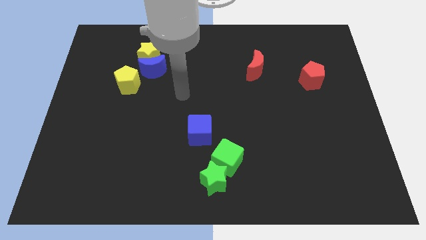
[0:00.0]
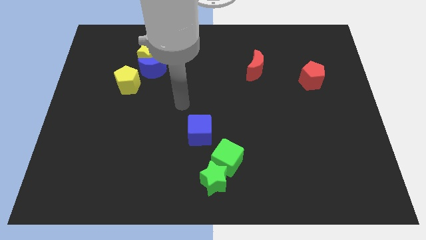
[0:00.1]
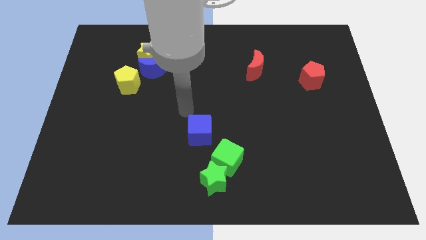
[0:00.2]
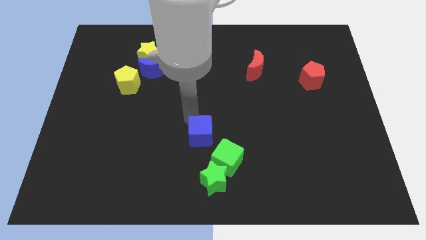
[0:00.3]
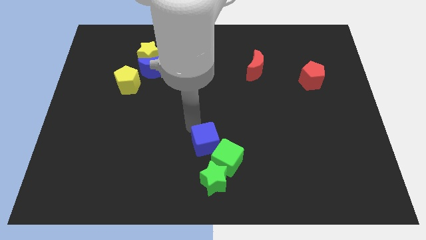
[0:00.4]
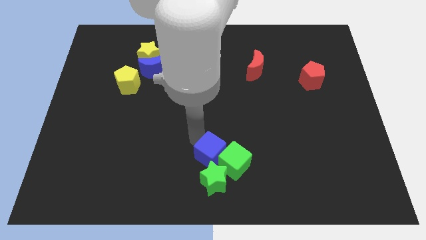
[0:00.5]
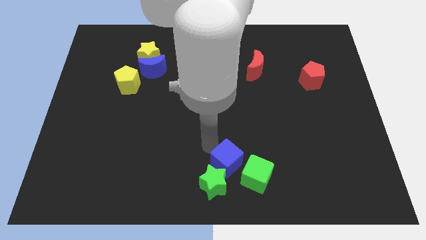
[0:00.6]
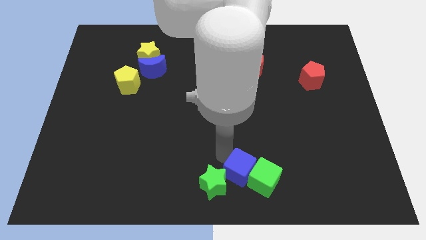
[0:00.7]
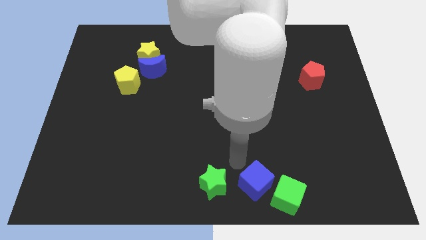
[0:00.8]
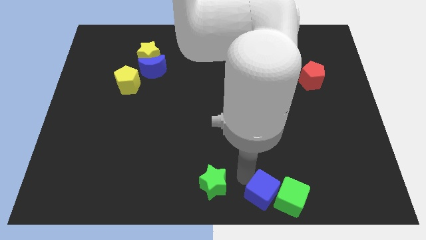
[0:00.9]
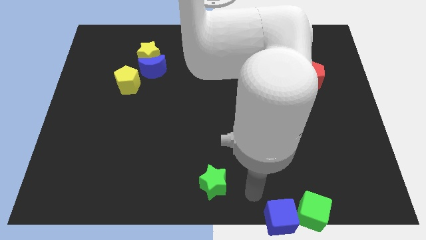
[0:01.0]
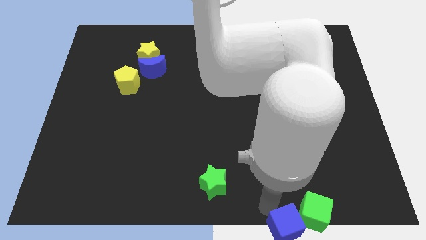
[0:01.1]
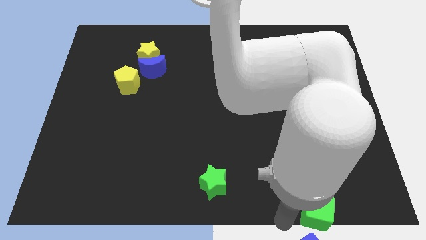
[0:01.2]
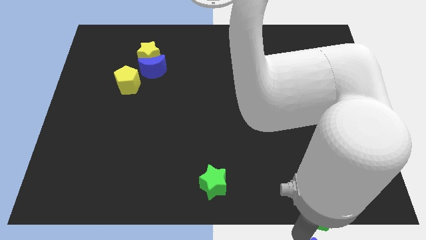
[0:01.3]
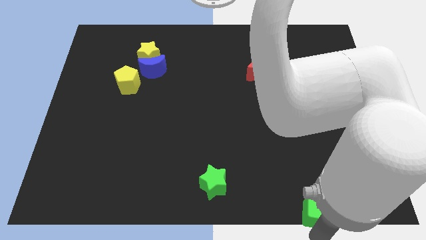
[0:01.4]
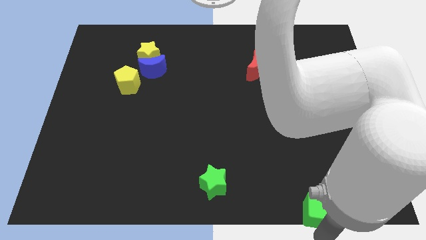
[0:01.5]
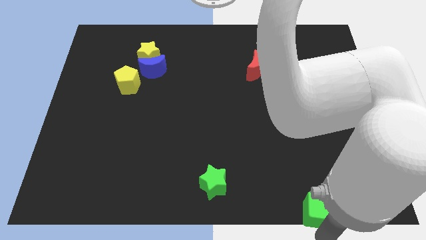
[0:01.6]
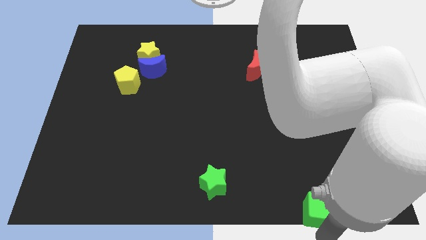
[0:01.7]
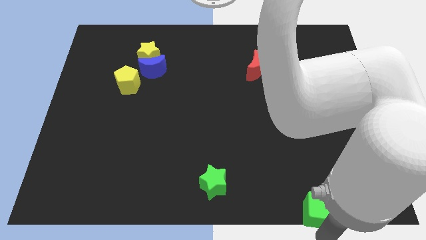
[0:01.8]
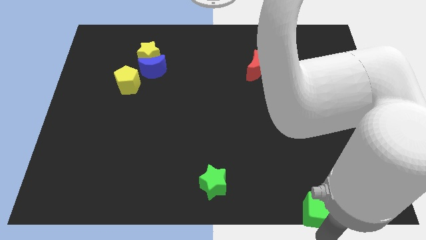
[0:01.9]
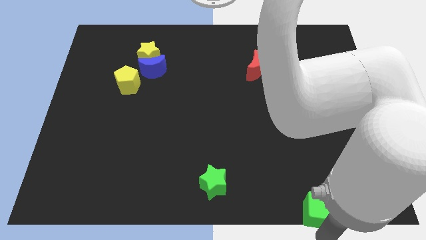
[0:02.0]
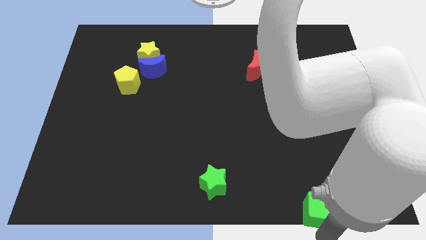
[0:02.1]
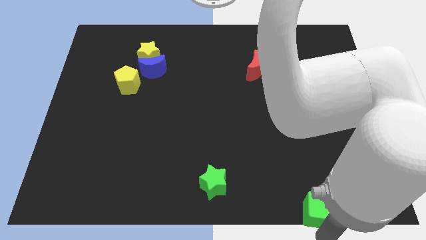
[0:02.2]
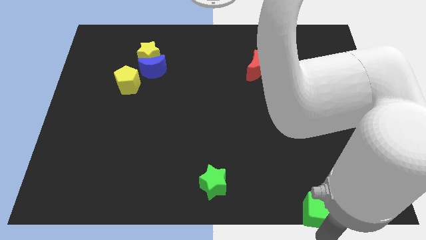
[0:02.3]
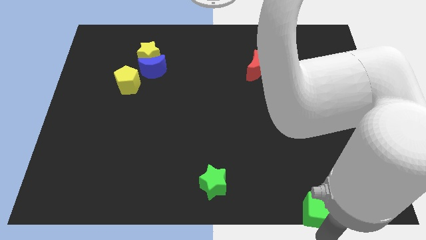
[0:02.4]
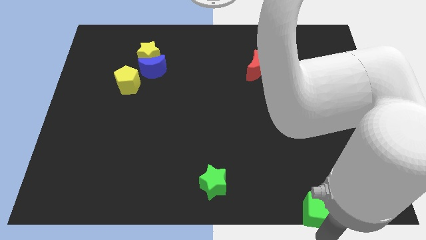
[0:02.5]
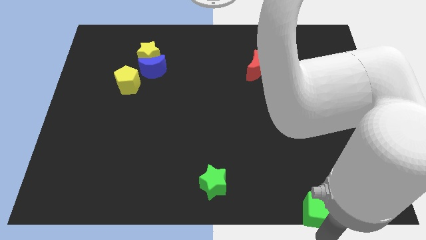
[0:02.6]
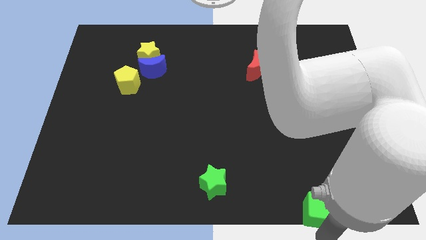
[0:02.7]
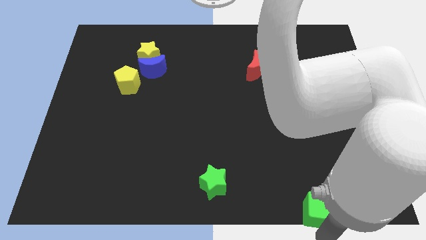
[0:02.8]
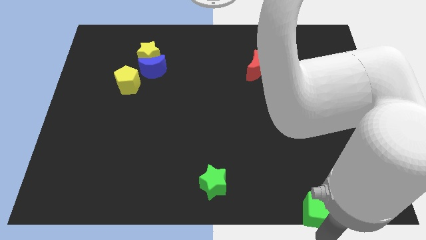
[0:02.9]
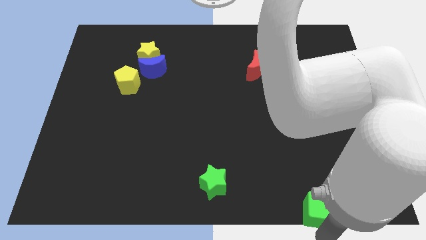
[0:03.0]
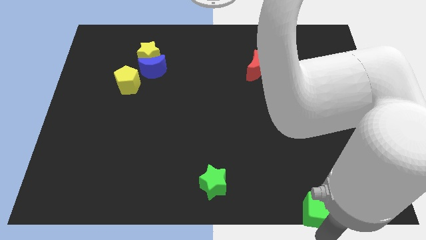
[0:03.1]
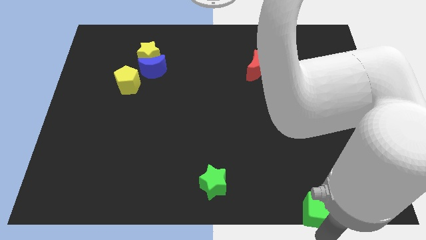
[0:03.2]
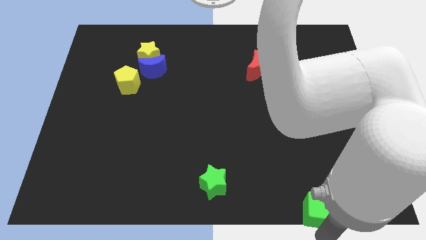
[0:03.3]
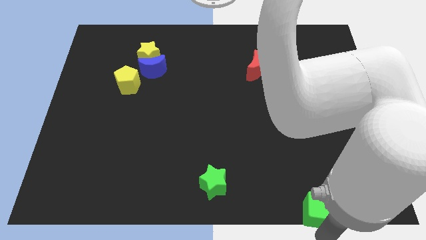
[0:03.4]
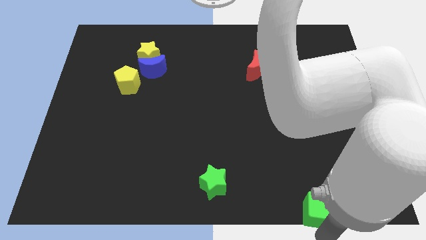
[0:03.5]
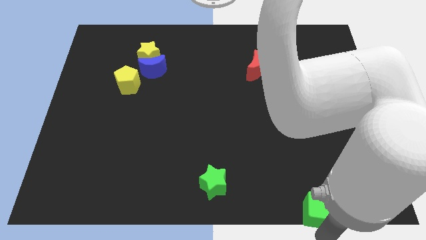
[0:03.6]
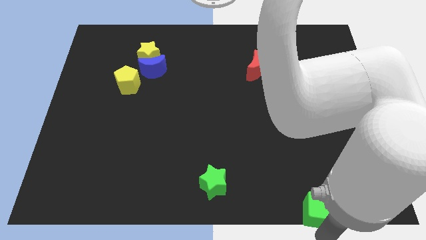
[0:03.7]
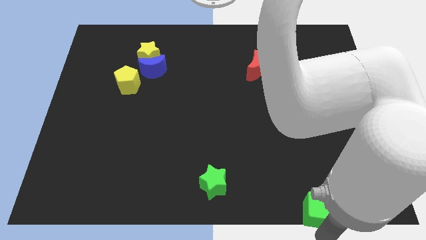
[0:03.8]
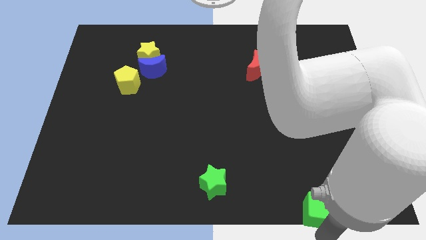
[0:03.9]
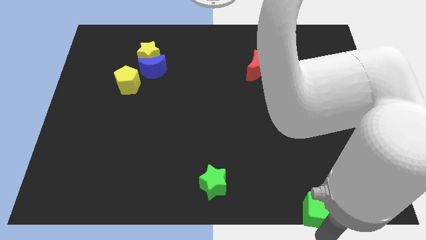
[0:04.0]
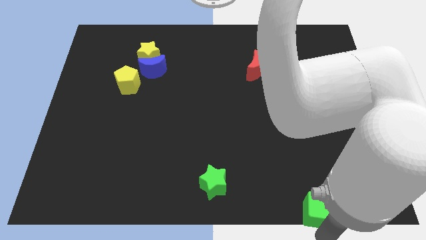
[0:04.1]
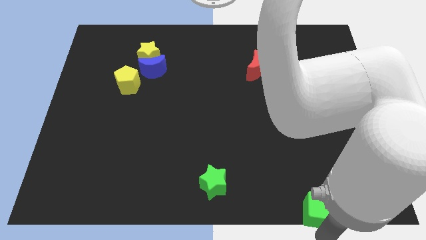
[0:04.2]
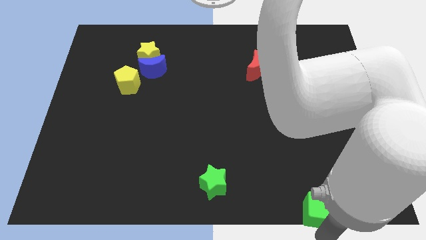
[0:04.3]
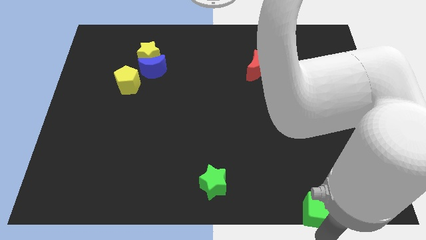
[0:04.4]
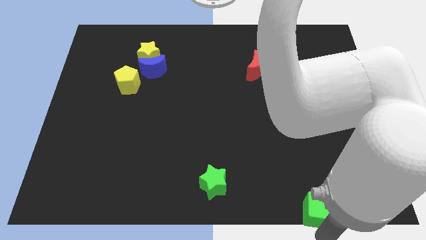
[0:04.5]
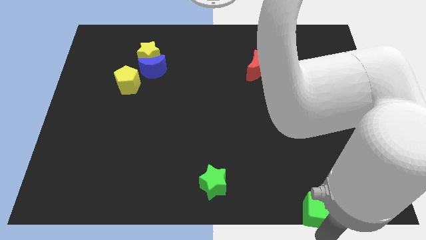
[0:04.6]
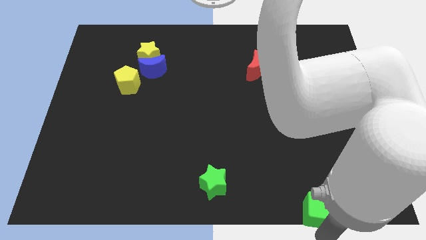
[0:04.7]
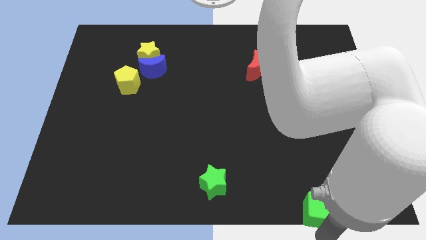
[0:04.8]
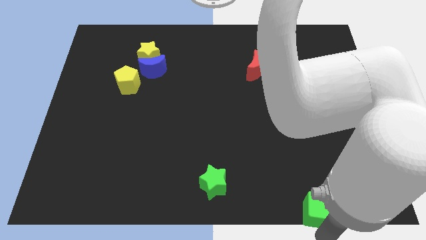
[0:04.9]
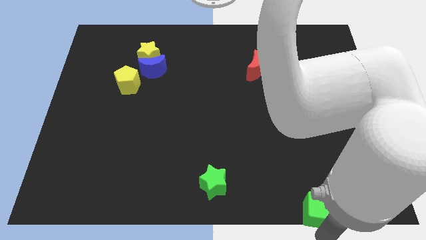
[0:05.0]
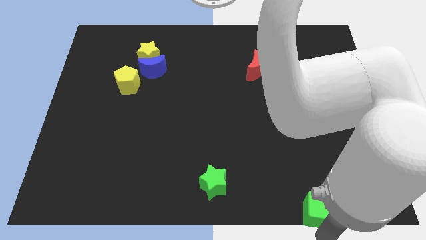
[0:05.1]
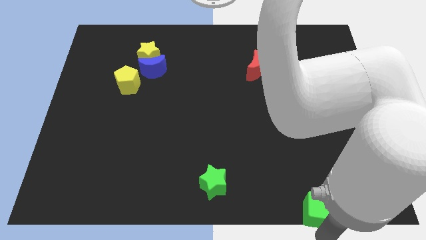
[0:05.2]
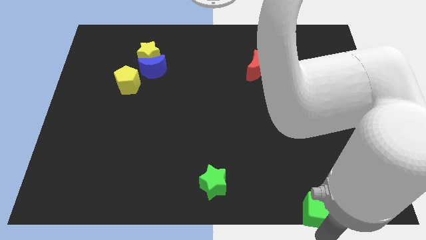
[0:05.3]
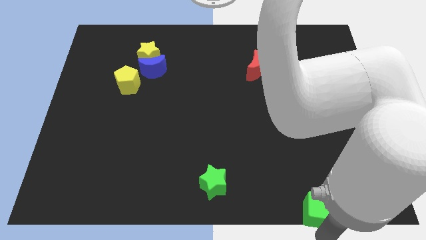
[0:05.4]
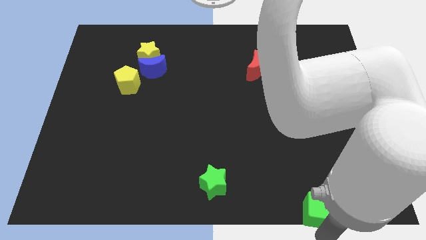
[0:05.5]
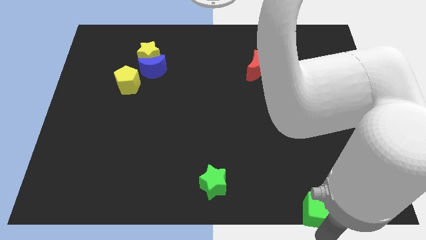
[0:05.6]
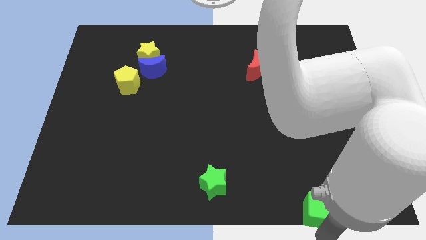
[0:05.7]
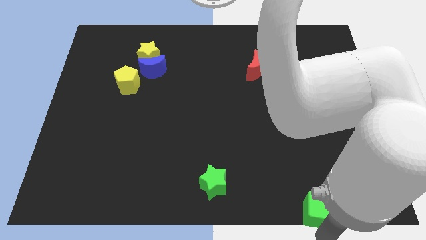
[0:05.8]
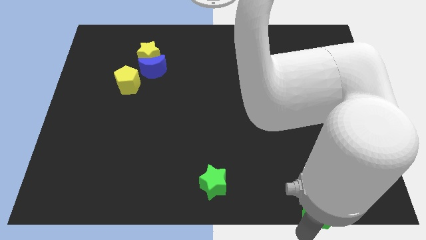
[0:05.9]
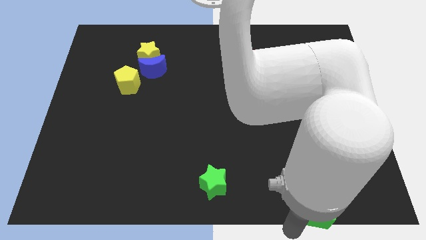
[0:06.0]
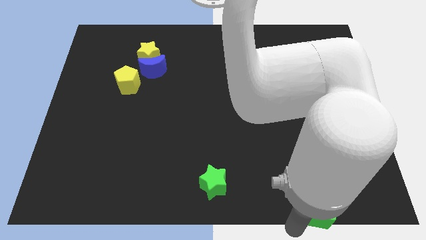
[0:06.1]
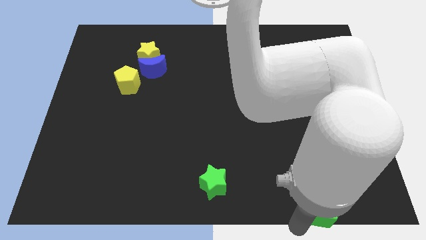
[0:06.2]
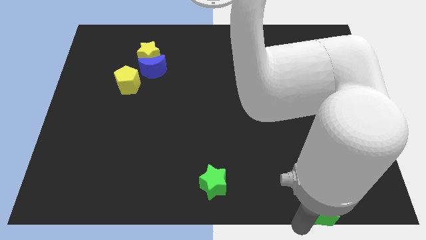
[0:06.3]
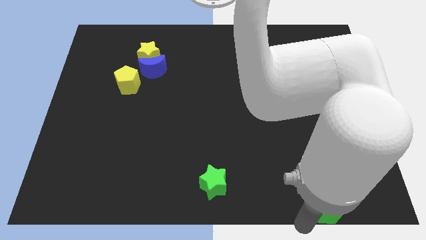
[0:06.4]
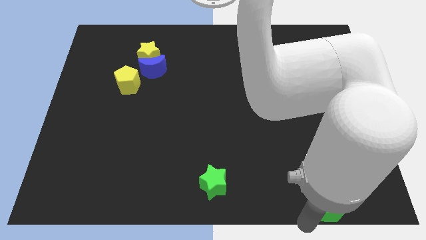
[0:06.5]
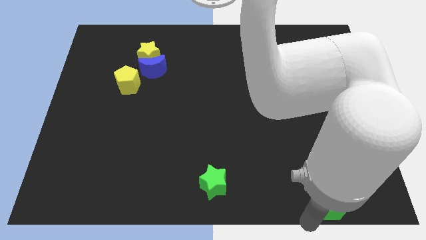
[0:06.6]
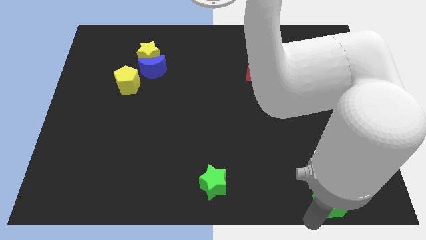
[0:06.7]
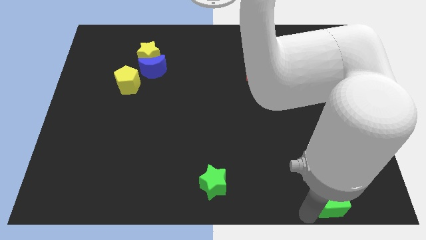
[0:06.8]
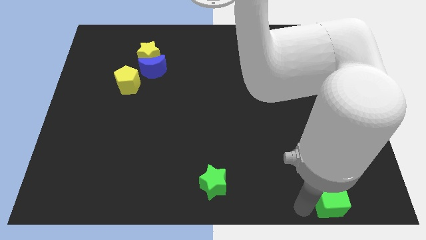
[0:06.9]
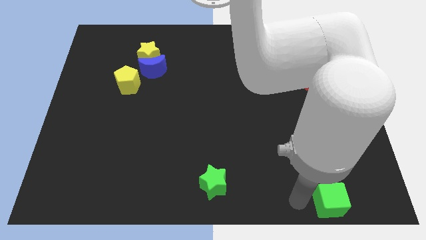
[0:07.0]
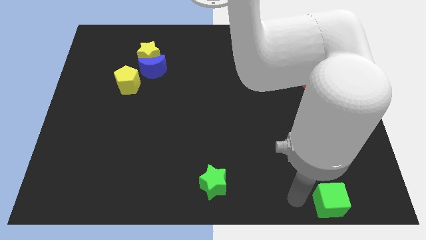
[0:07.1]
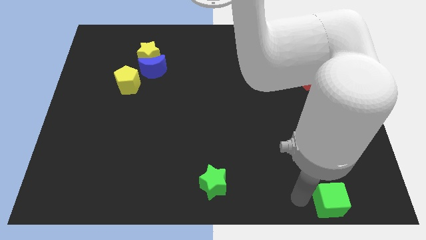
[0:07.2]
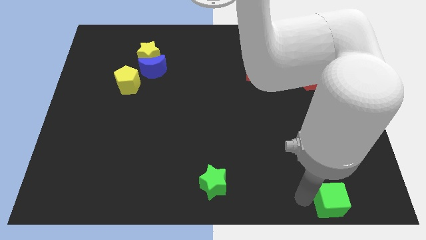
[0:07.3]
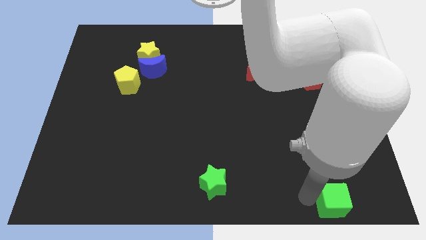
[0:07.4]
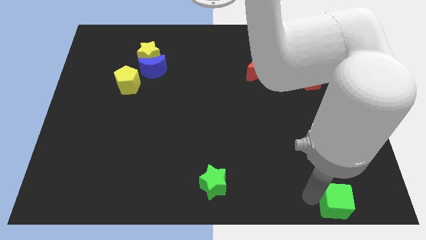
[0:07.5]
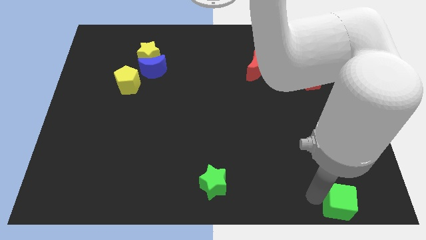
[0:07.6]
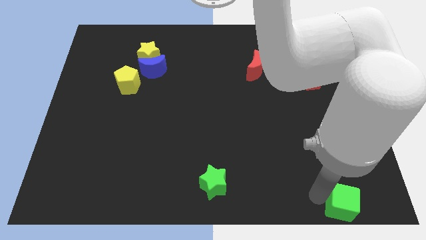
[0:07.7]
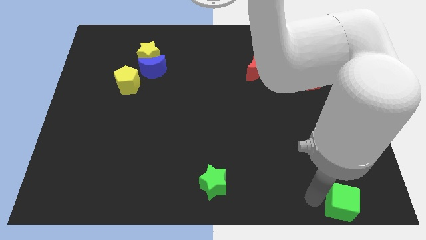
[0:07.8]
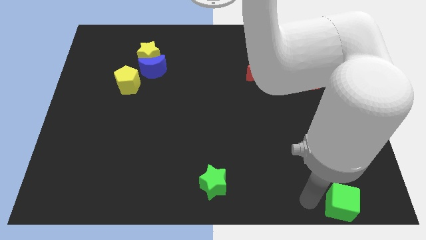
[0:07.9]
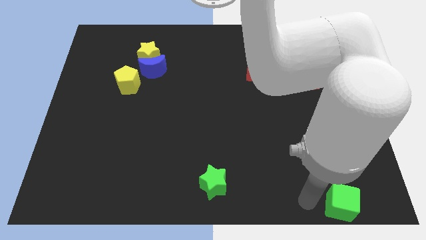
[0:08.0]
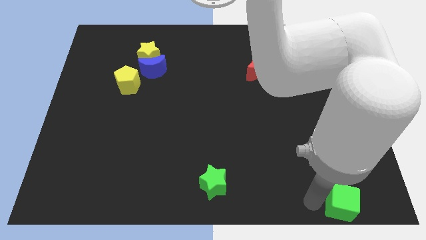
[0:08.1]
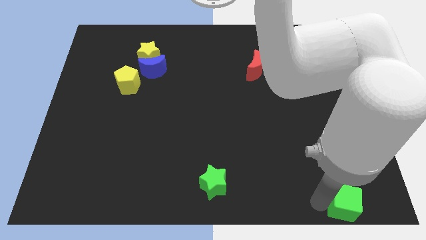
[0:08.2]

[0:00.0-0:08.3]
slide the green cube to the lower right corner
